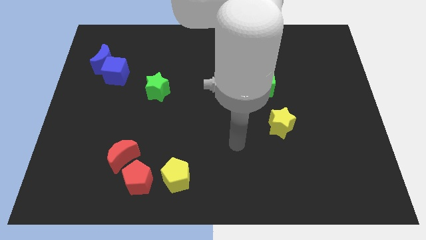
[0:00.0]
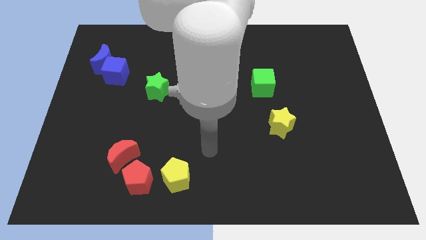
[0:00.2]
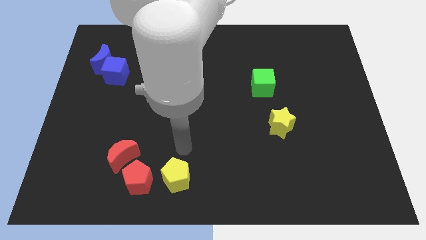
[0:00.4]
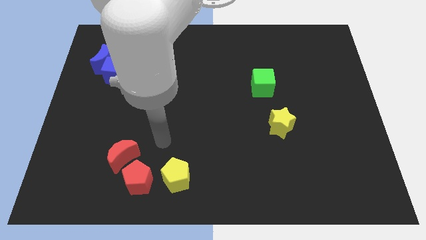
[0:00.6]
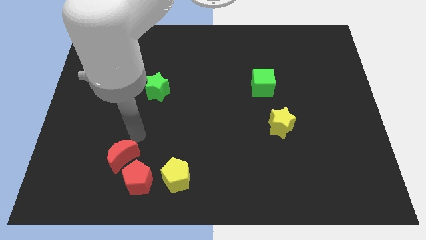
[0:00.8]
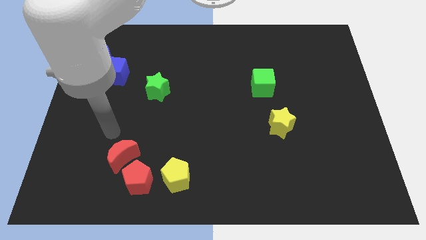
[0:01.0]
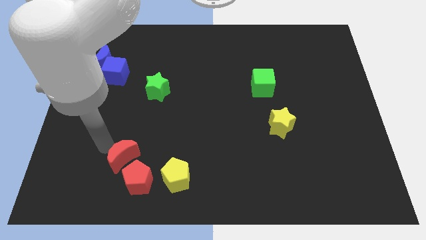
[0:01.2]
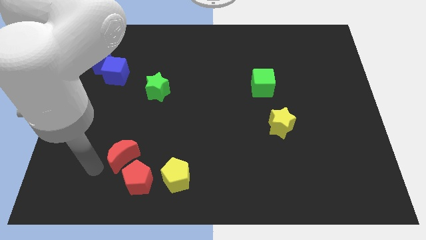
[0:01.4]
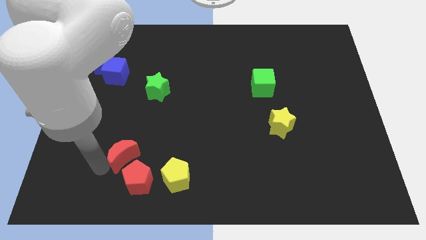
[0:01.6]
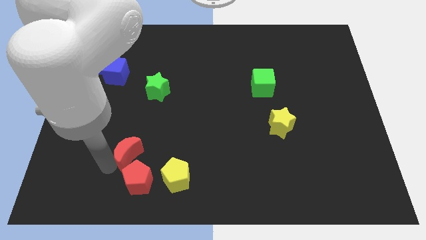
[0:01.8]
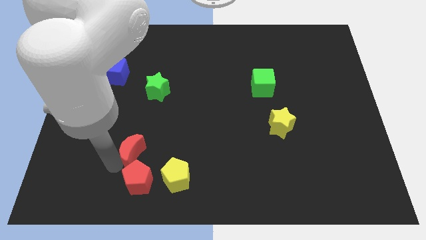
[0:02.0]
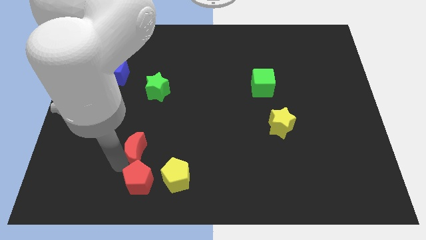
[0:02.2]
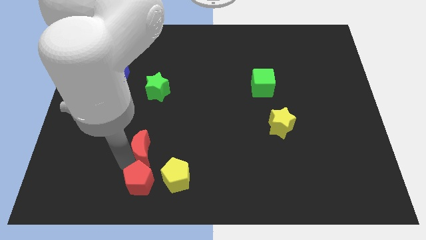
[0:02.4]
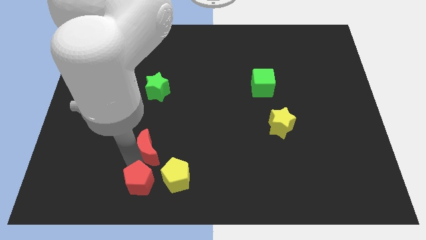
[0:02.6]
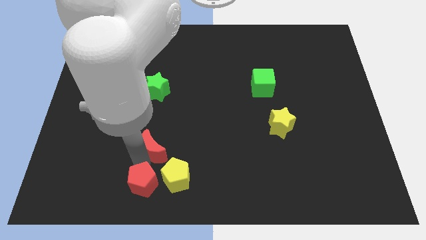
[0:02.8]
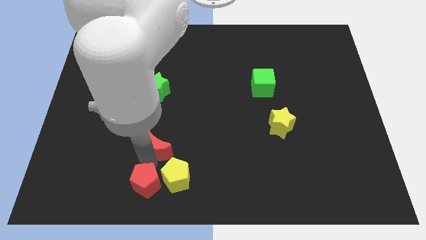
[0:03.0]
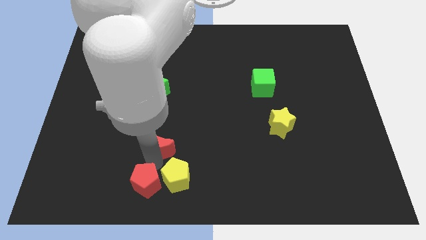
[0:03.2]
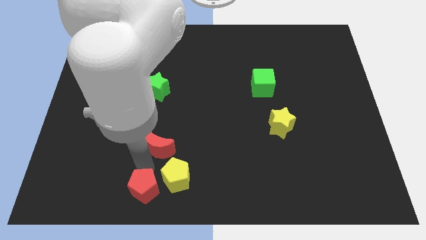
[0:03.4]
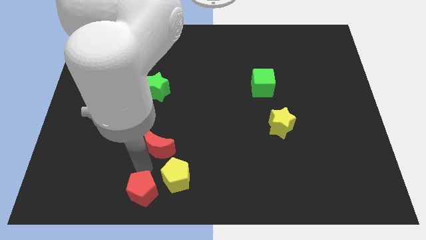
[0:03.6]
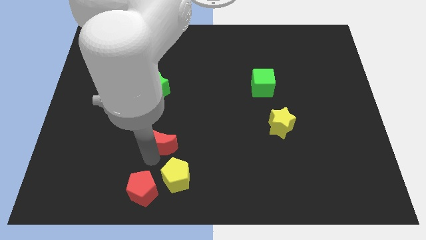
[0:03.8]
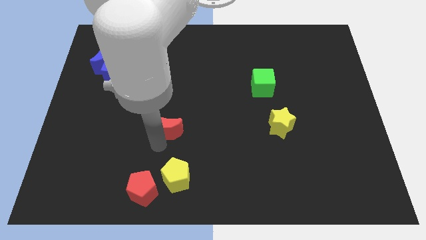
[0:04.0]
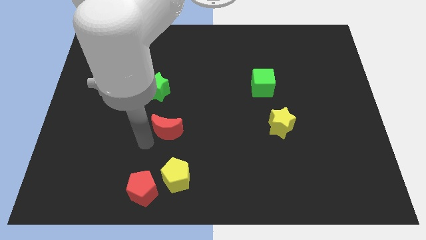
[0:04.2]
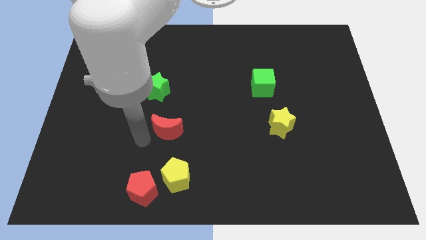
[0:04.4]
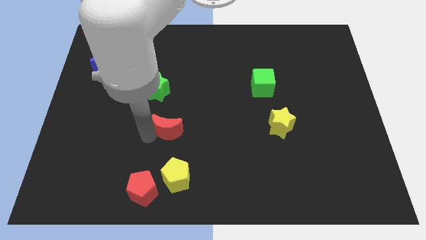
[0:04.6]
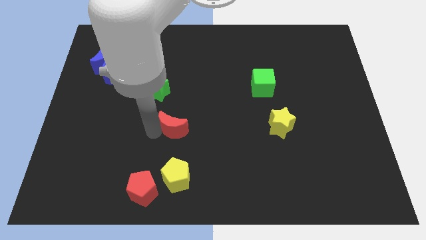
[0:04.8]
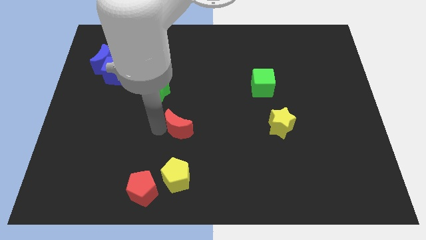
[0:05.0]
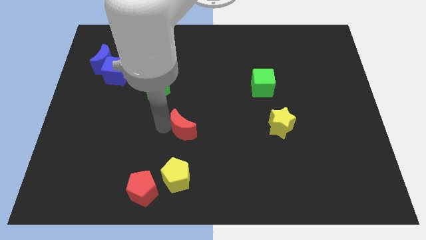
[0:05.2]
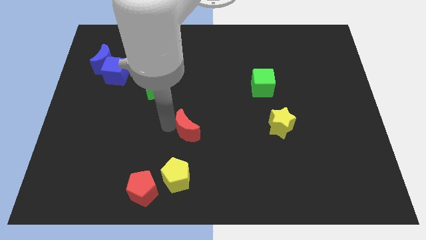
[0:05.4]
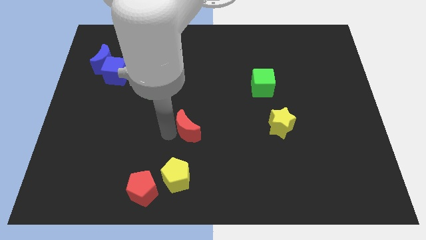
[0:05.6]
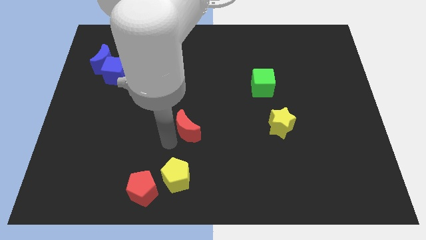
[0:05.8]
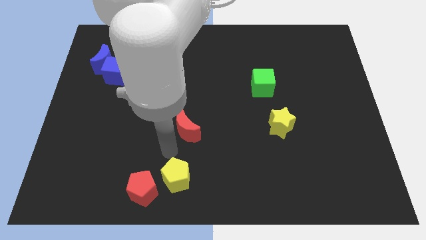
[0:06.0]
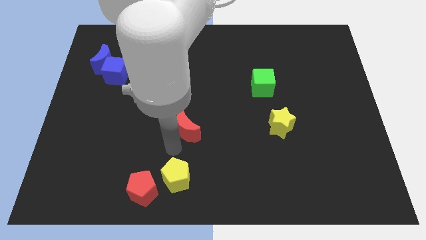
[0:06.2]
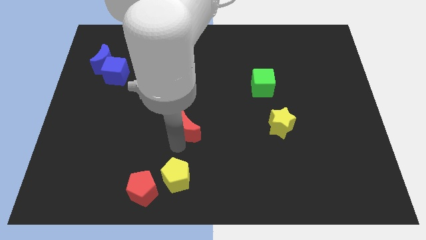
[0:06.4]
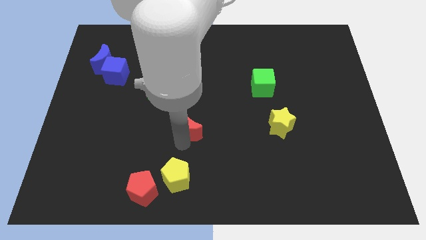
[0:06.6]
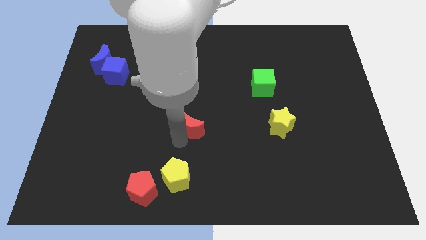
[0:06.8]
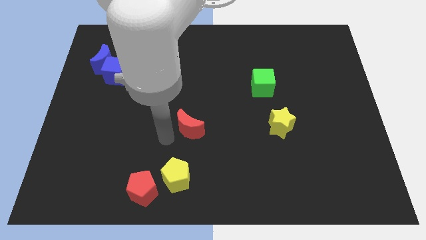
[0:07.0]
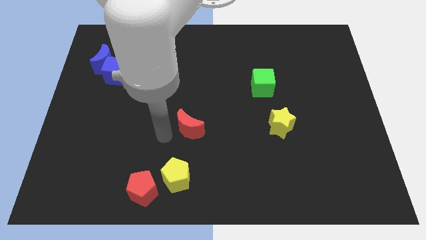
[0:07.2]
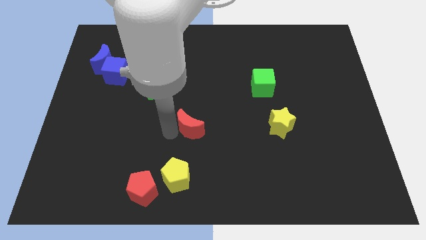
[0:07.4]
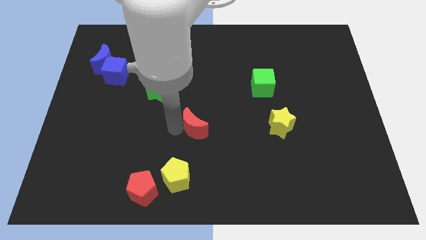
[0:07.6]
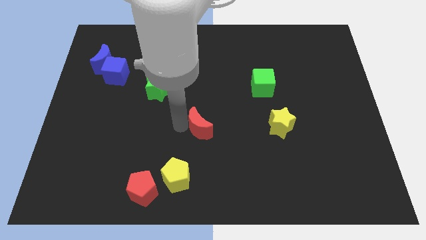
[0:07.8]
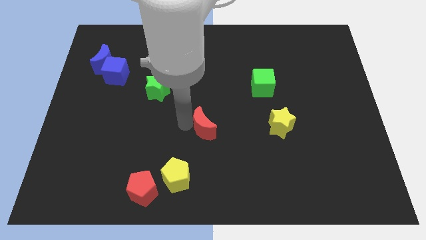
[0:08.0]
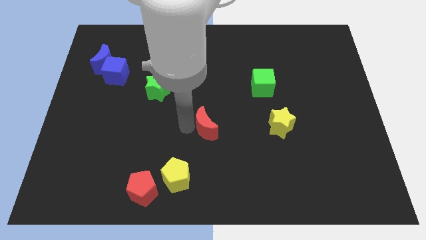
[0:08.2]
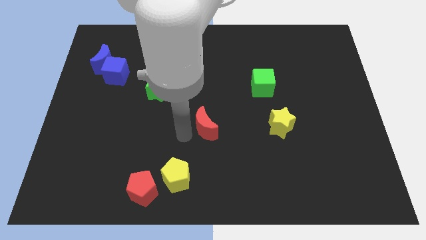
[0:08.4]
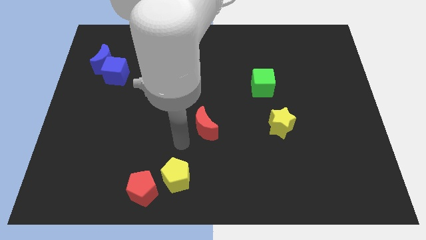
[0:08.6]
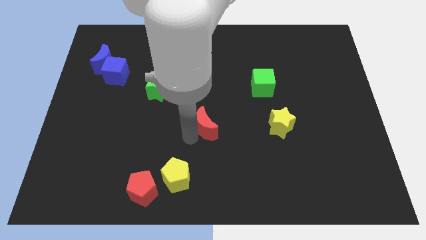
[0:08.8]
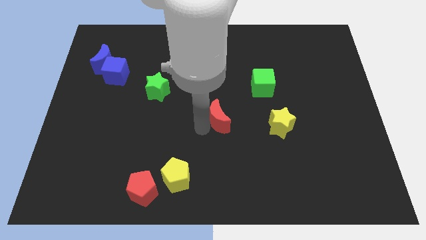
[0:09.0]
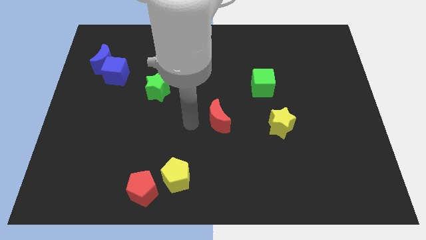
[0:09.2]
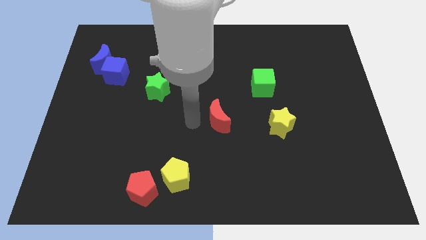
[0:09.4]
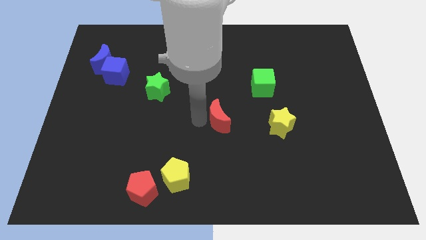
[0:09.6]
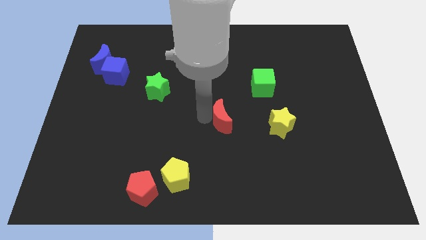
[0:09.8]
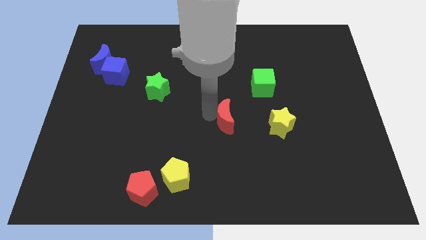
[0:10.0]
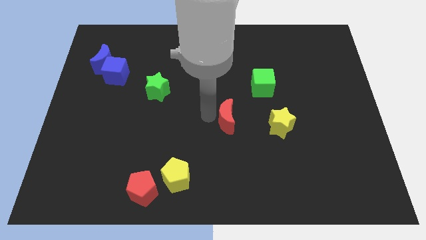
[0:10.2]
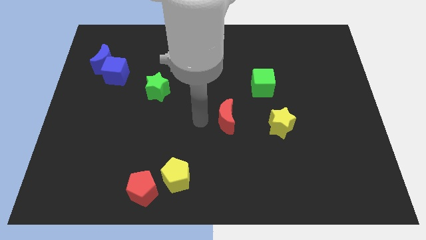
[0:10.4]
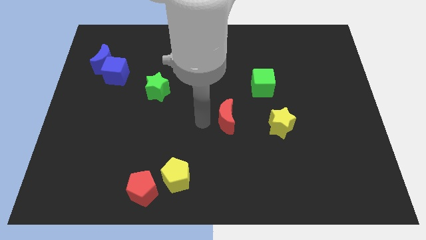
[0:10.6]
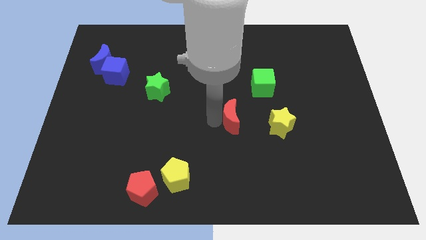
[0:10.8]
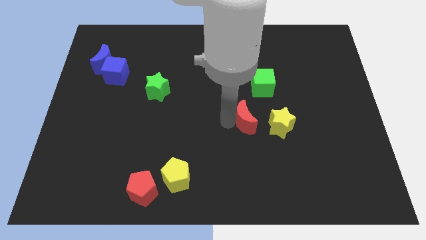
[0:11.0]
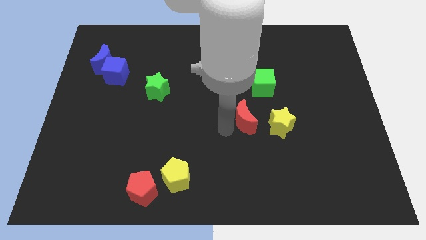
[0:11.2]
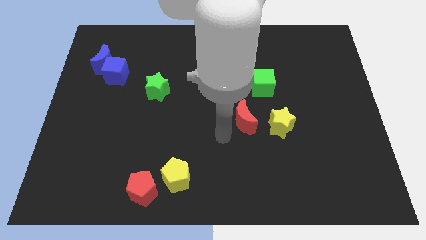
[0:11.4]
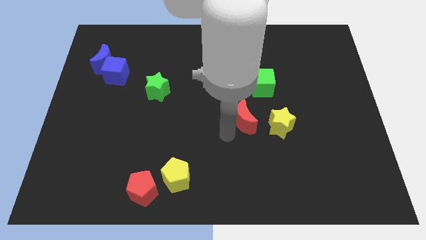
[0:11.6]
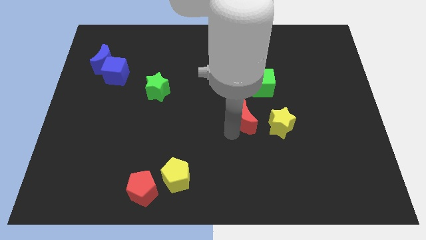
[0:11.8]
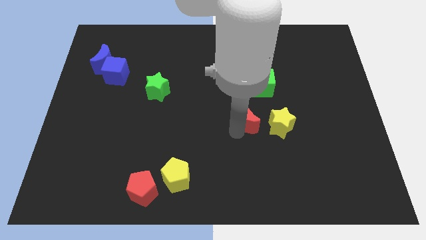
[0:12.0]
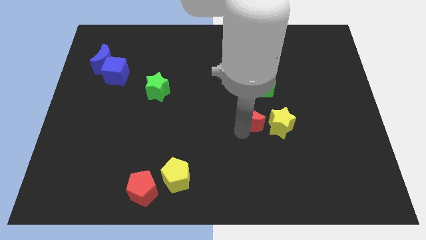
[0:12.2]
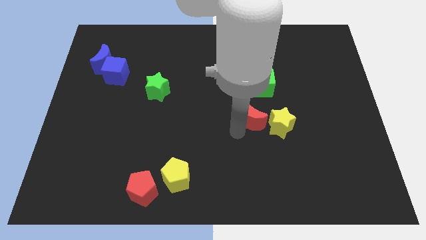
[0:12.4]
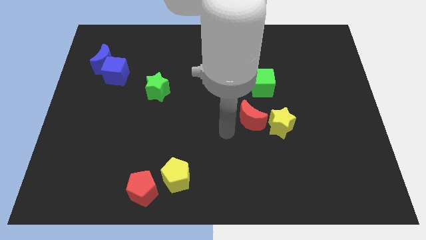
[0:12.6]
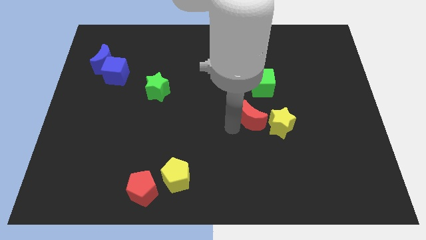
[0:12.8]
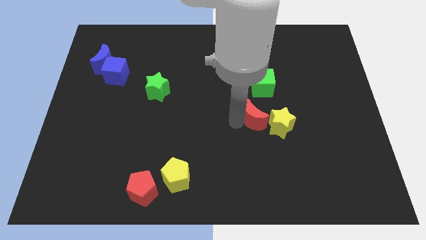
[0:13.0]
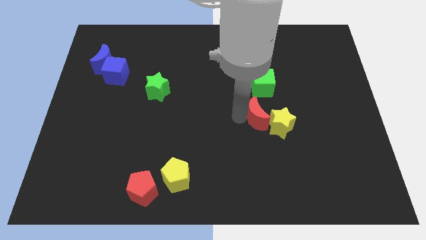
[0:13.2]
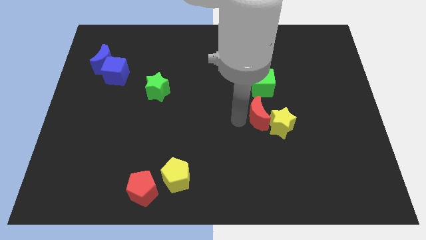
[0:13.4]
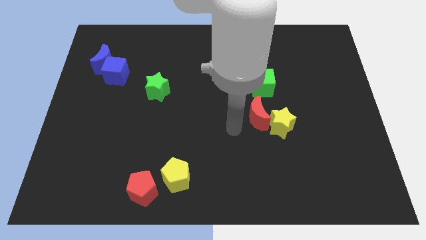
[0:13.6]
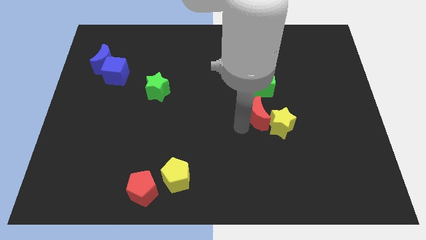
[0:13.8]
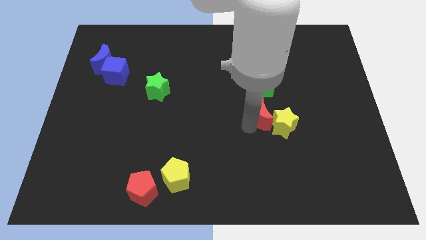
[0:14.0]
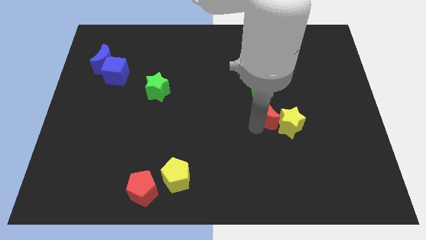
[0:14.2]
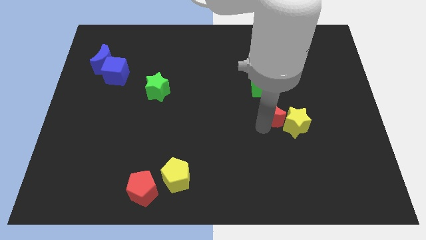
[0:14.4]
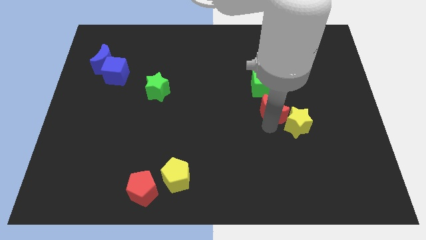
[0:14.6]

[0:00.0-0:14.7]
slide the red moon diagonally down and to the right of the green cube
